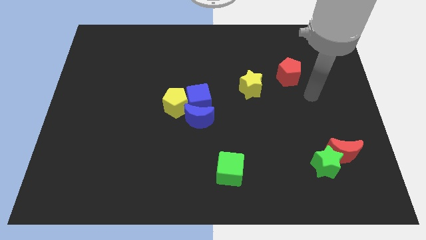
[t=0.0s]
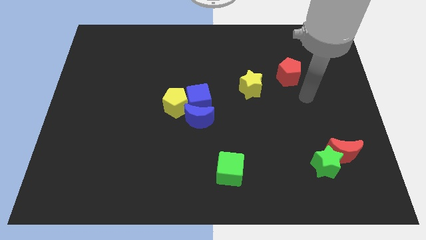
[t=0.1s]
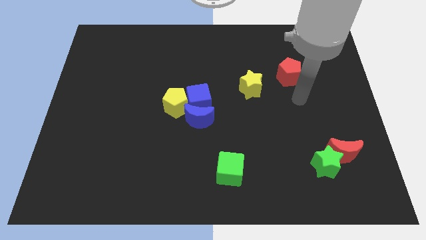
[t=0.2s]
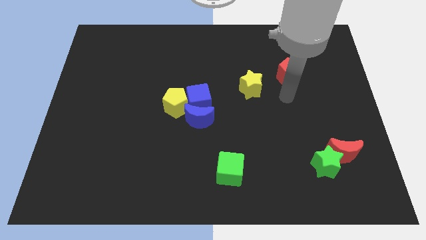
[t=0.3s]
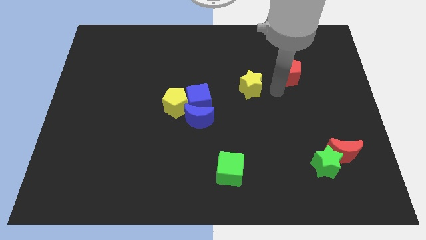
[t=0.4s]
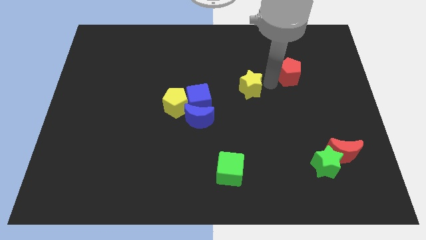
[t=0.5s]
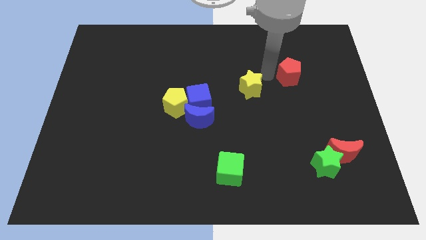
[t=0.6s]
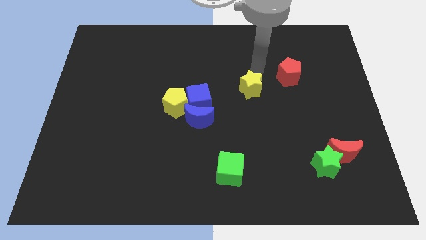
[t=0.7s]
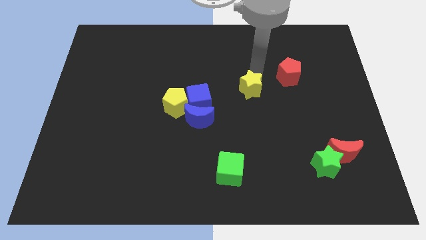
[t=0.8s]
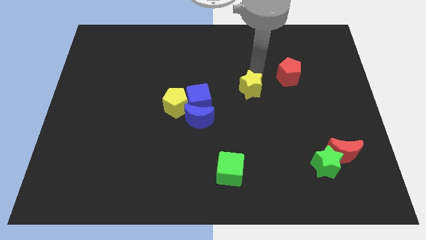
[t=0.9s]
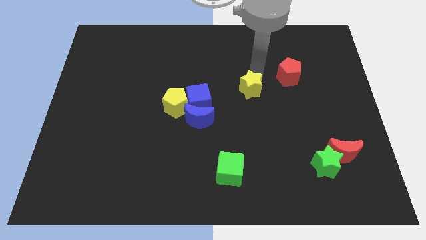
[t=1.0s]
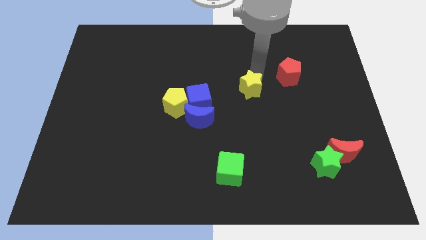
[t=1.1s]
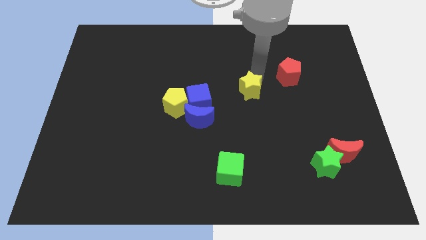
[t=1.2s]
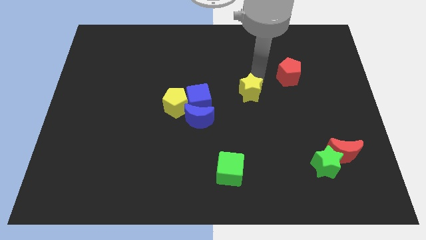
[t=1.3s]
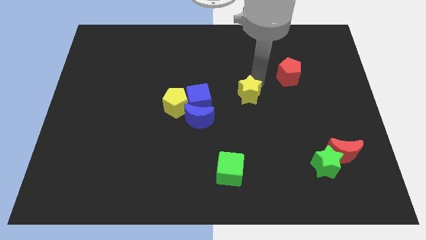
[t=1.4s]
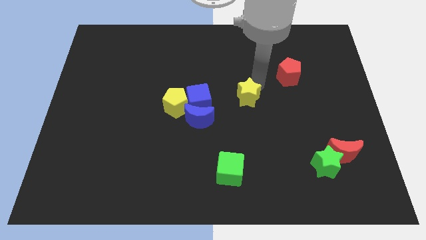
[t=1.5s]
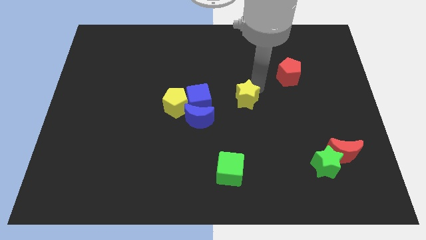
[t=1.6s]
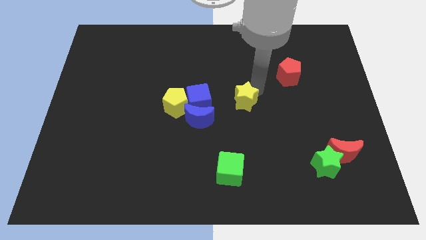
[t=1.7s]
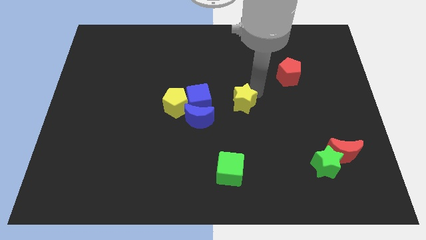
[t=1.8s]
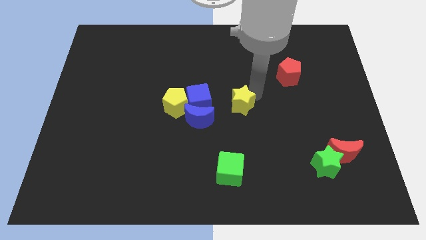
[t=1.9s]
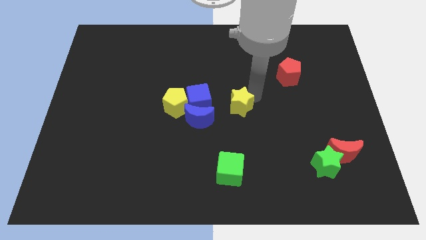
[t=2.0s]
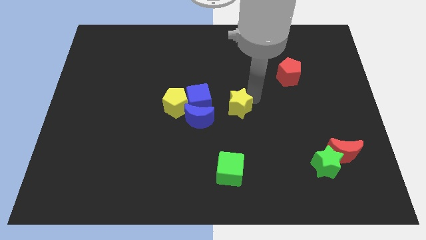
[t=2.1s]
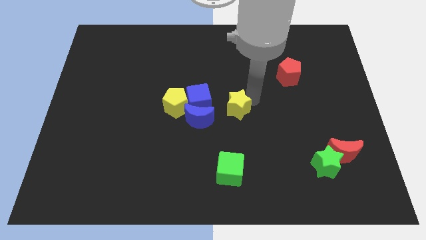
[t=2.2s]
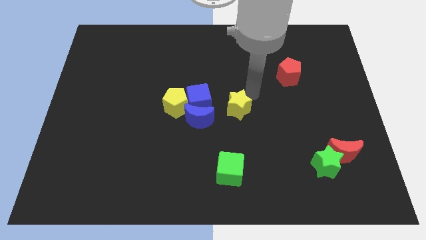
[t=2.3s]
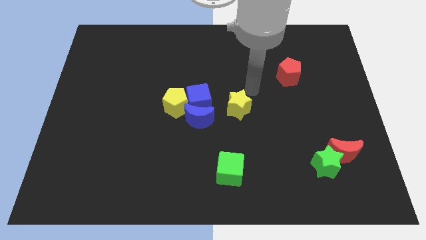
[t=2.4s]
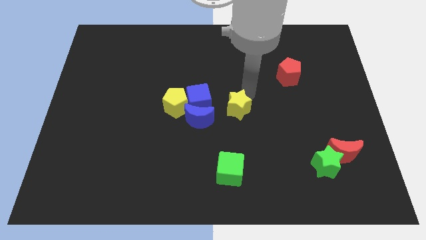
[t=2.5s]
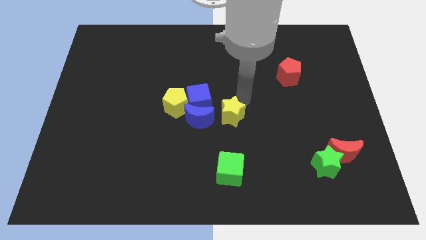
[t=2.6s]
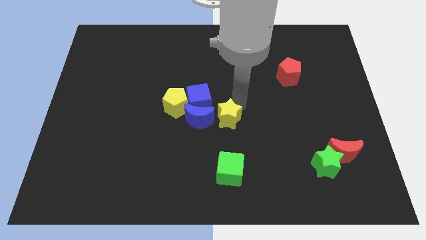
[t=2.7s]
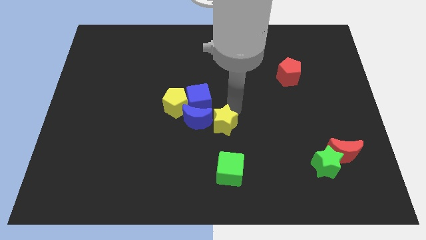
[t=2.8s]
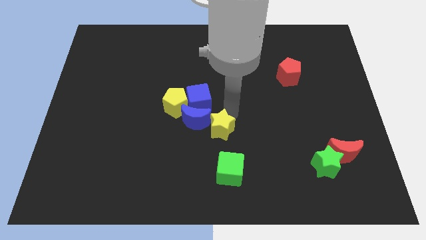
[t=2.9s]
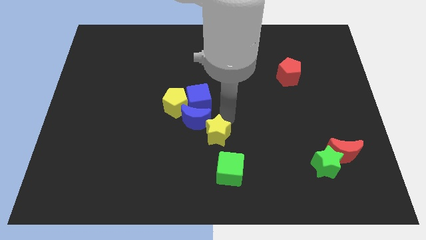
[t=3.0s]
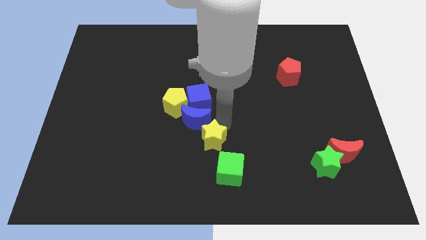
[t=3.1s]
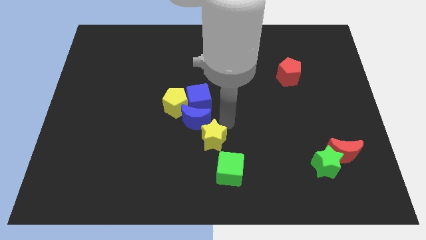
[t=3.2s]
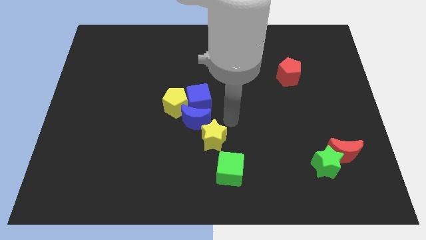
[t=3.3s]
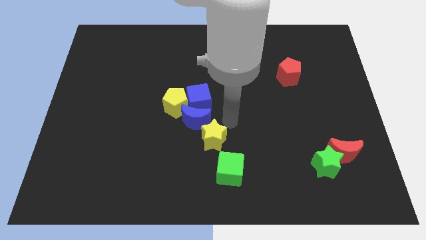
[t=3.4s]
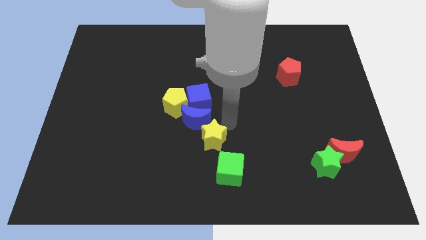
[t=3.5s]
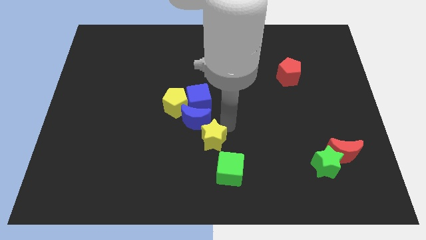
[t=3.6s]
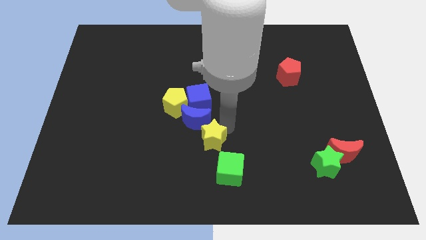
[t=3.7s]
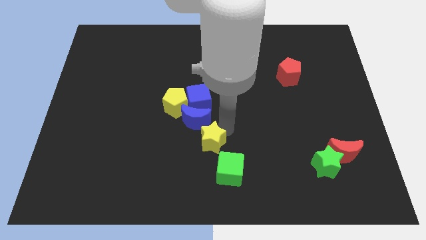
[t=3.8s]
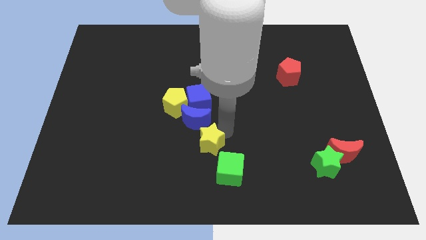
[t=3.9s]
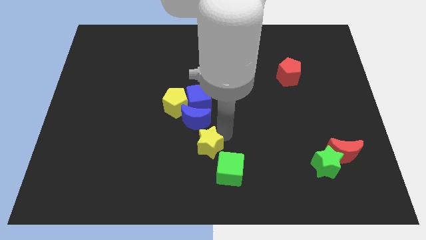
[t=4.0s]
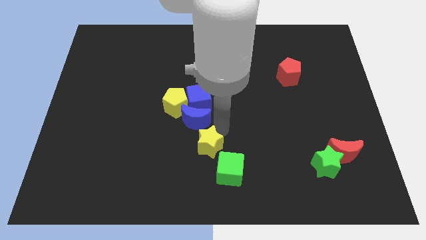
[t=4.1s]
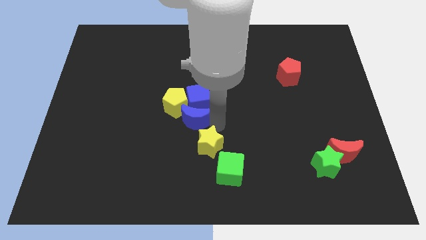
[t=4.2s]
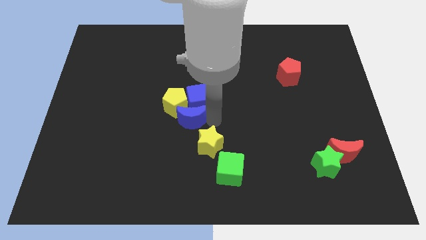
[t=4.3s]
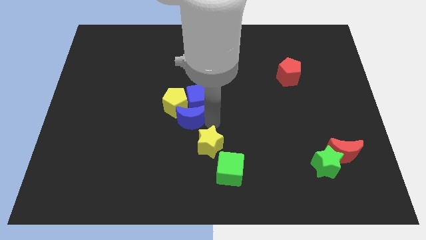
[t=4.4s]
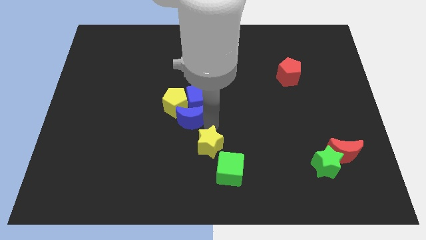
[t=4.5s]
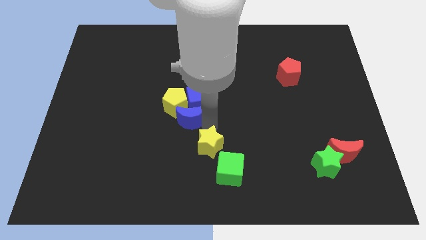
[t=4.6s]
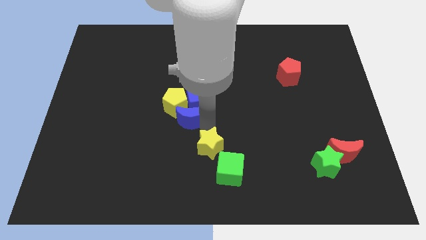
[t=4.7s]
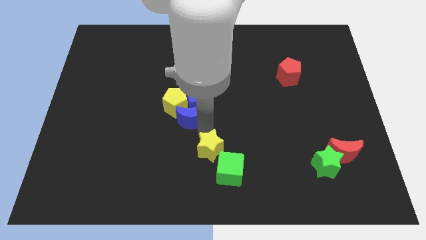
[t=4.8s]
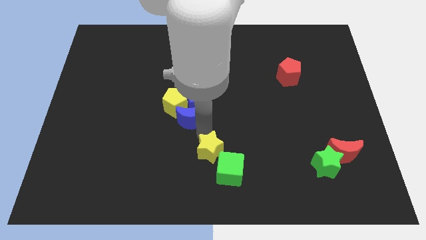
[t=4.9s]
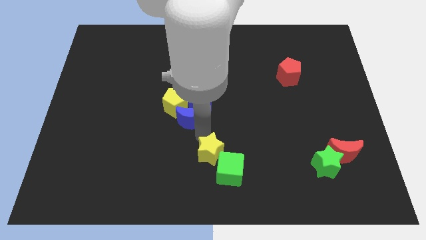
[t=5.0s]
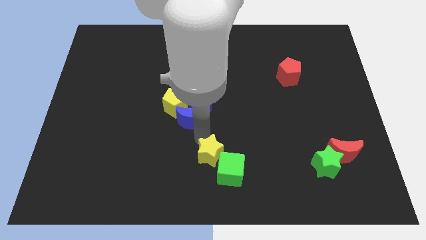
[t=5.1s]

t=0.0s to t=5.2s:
move the yellow star to the bottom side

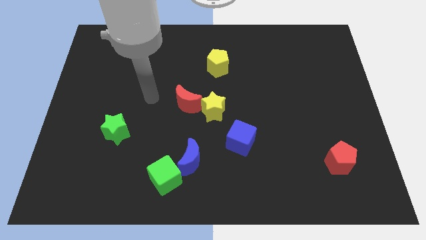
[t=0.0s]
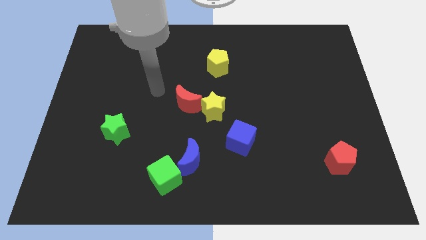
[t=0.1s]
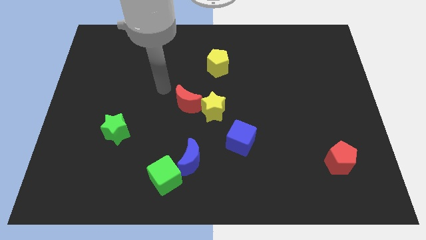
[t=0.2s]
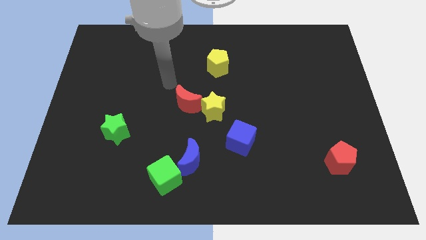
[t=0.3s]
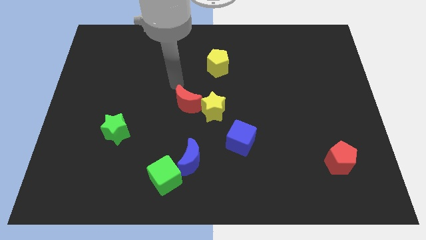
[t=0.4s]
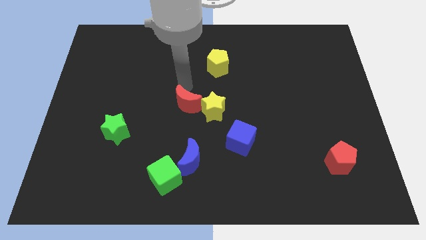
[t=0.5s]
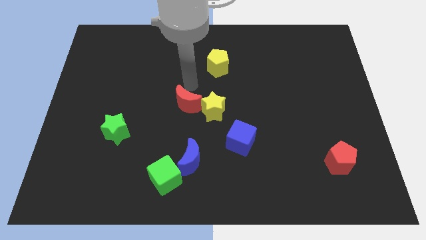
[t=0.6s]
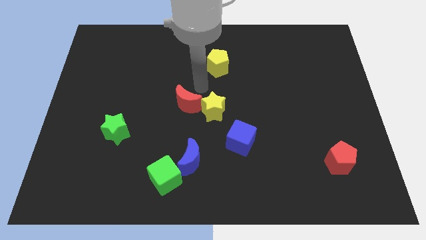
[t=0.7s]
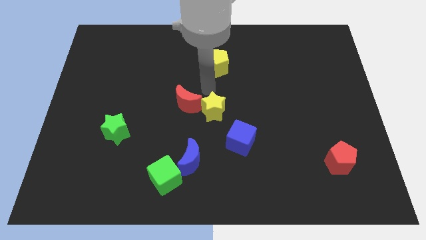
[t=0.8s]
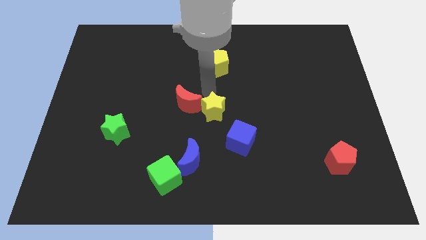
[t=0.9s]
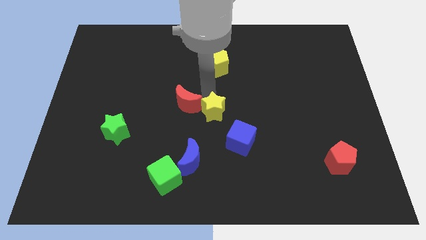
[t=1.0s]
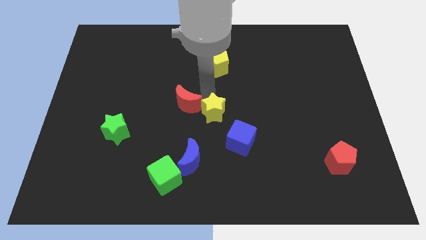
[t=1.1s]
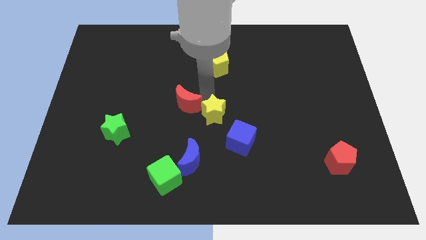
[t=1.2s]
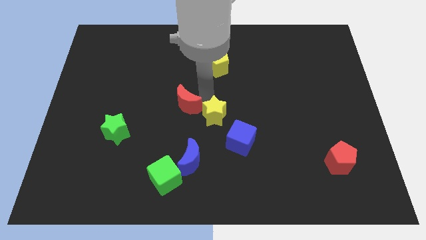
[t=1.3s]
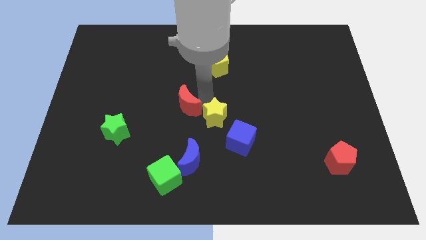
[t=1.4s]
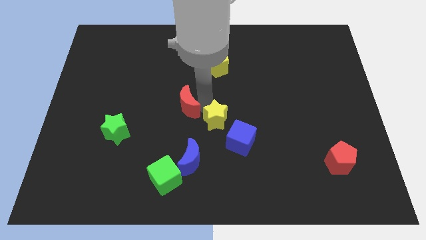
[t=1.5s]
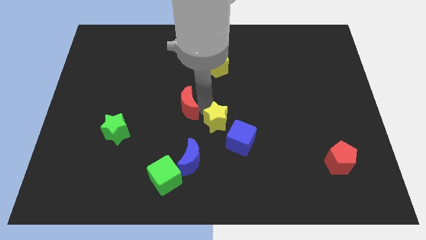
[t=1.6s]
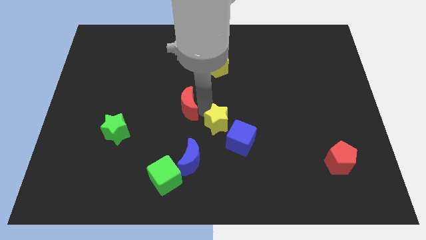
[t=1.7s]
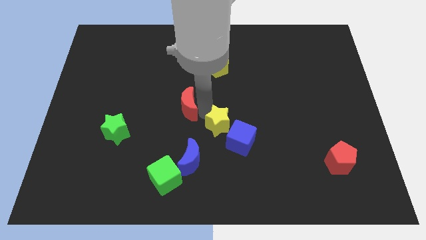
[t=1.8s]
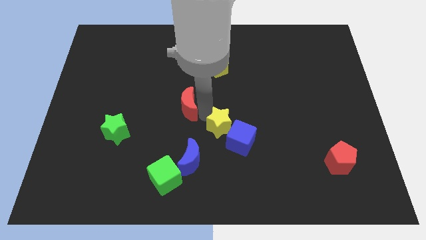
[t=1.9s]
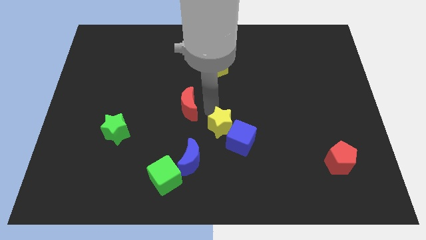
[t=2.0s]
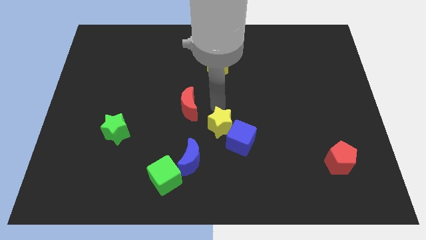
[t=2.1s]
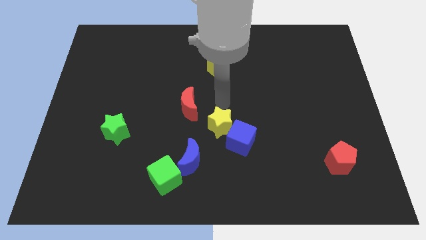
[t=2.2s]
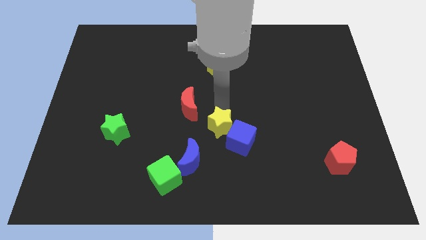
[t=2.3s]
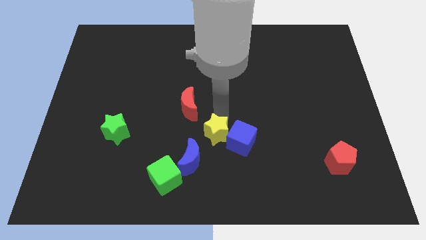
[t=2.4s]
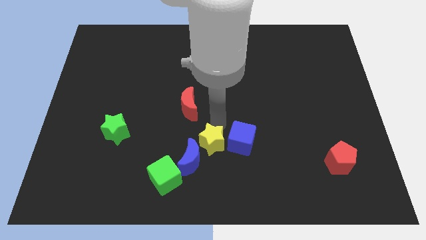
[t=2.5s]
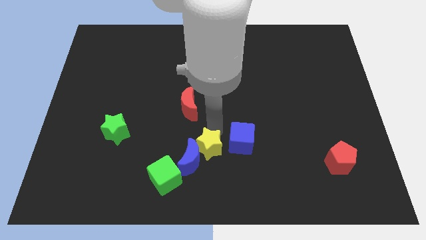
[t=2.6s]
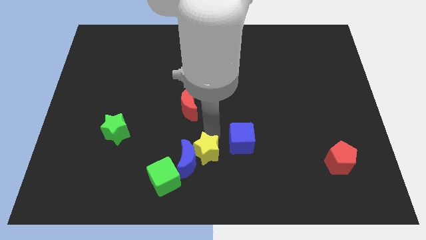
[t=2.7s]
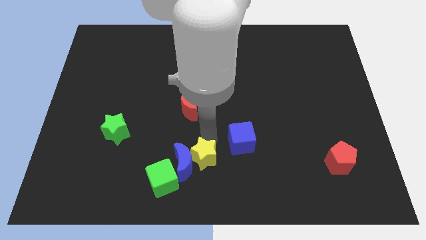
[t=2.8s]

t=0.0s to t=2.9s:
put the yellow star to the bottom side
